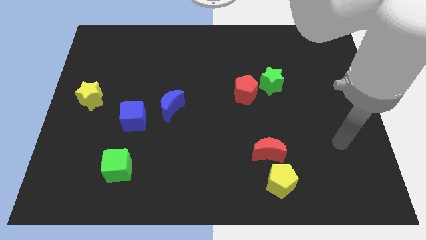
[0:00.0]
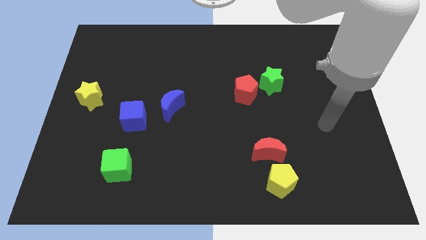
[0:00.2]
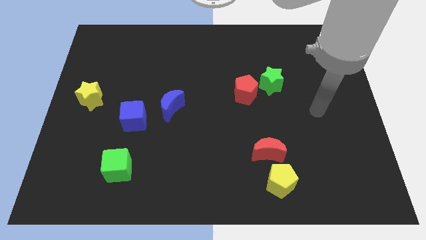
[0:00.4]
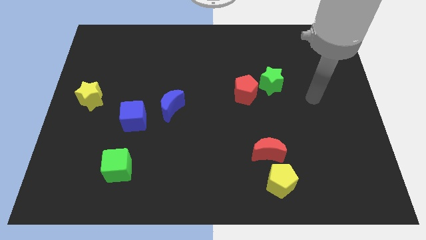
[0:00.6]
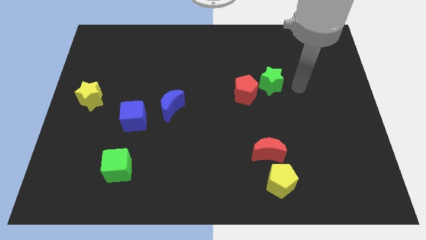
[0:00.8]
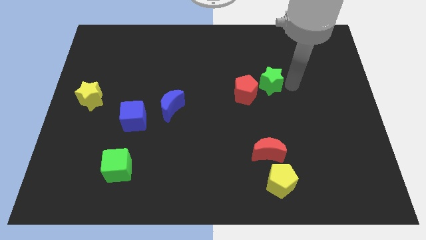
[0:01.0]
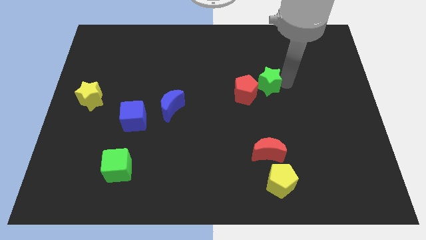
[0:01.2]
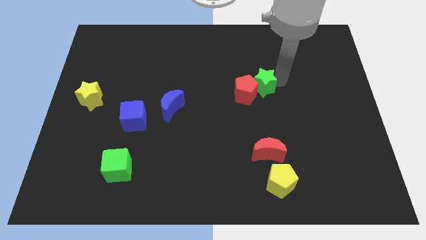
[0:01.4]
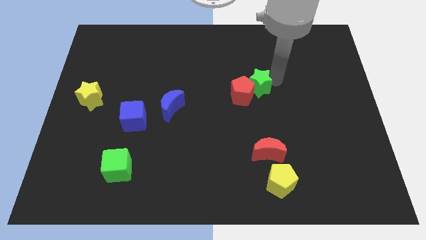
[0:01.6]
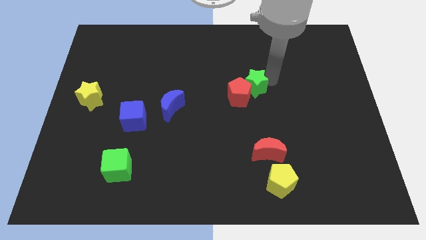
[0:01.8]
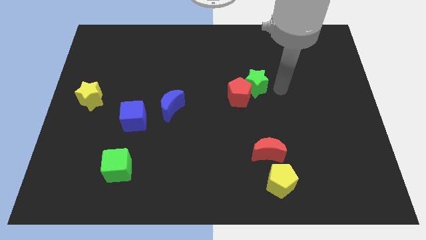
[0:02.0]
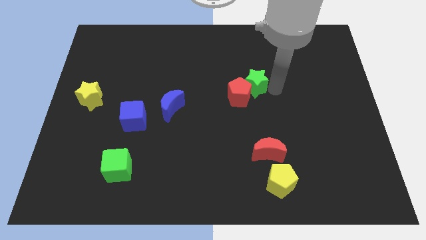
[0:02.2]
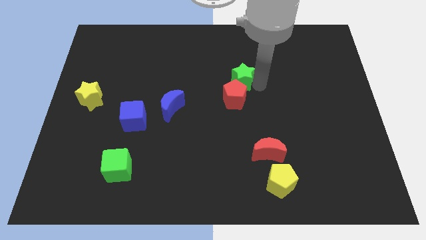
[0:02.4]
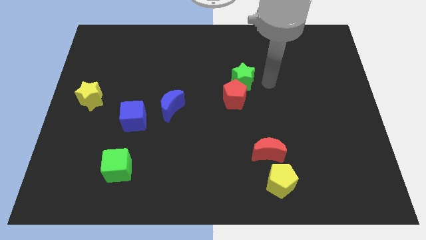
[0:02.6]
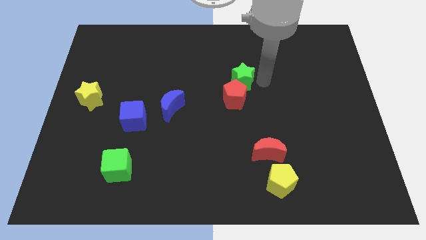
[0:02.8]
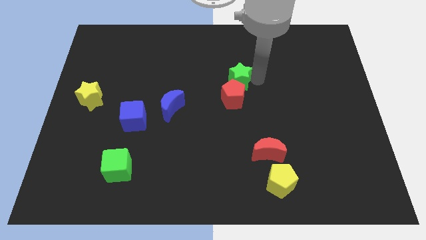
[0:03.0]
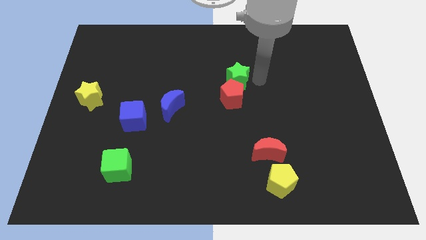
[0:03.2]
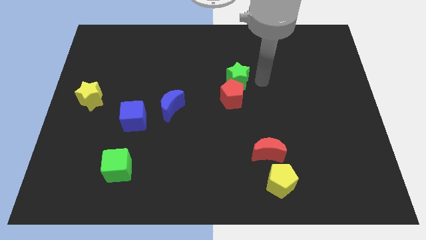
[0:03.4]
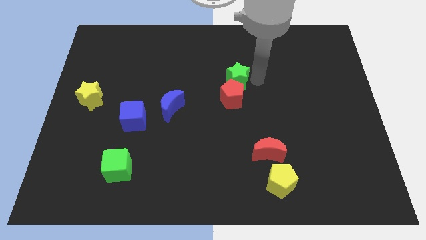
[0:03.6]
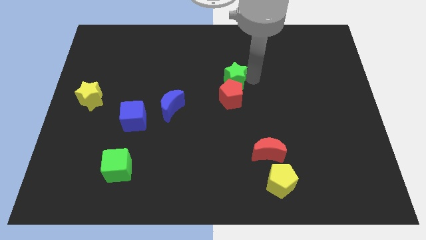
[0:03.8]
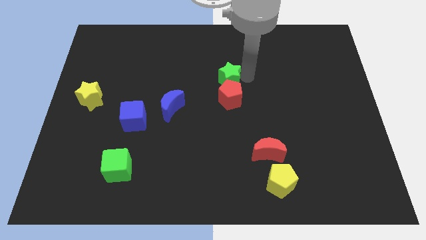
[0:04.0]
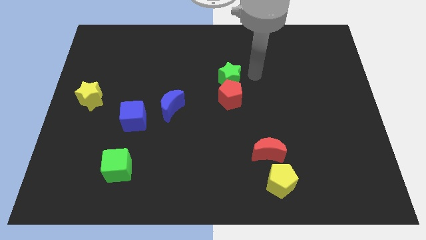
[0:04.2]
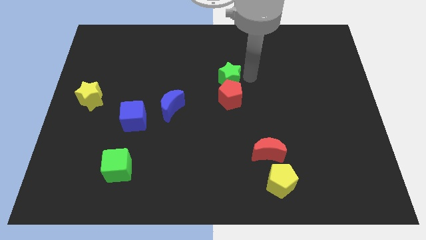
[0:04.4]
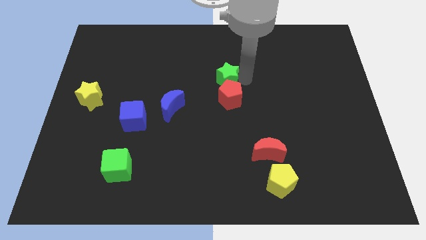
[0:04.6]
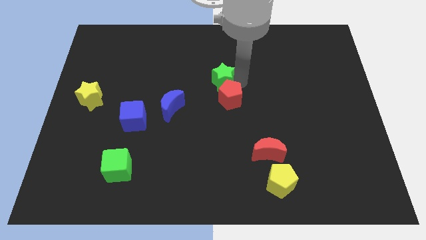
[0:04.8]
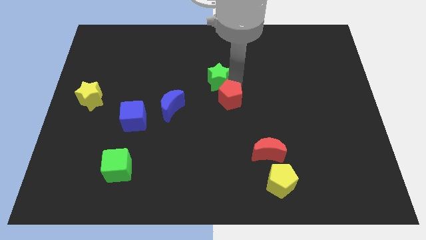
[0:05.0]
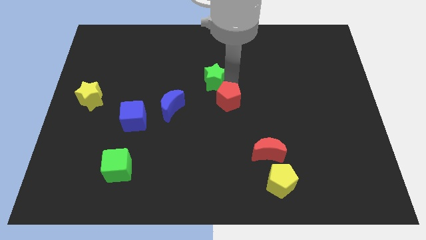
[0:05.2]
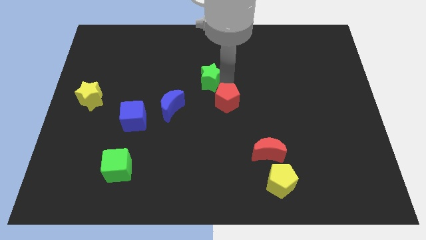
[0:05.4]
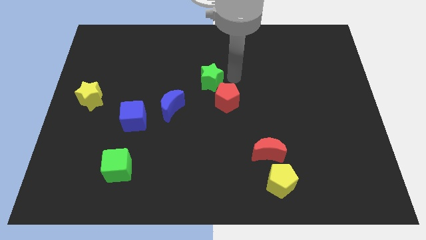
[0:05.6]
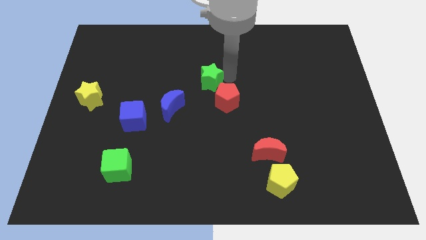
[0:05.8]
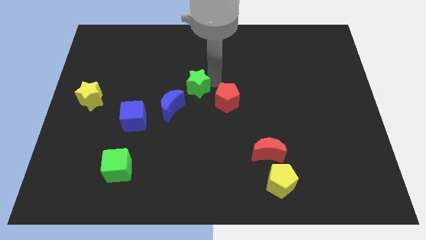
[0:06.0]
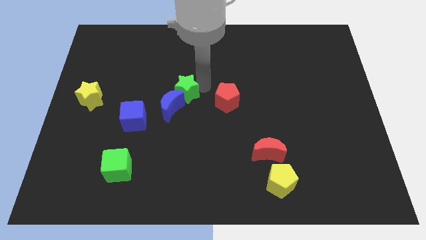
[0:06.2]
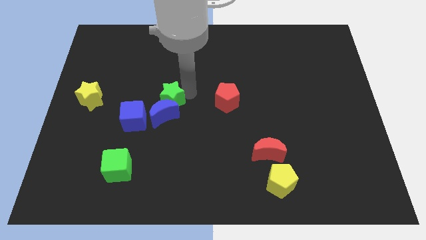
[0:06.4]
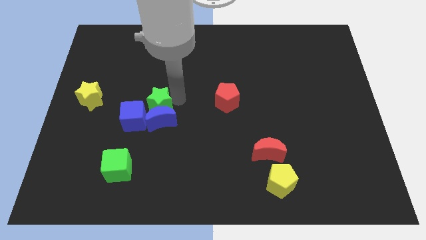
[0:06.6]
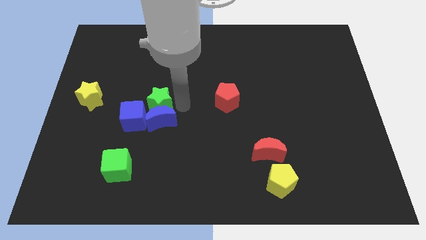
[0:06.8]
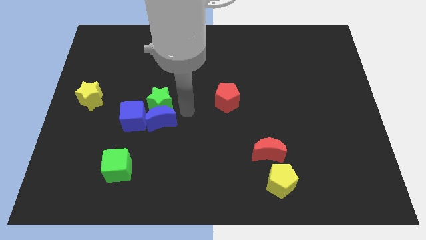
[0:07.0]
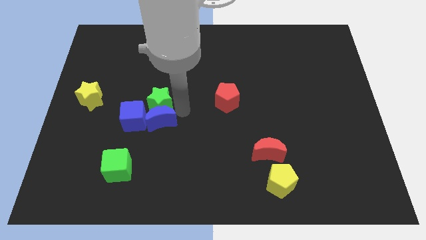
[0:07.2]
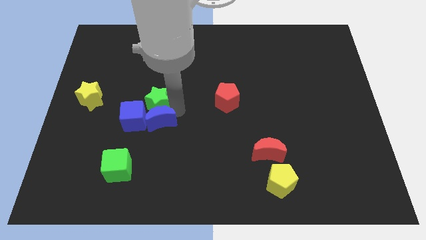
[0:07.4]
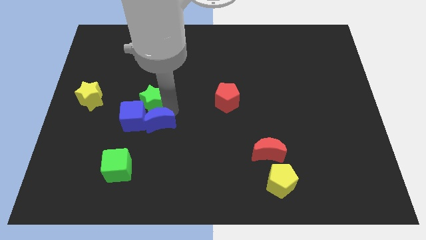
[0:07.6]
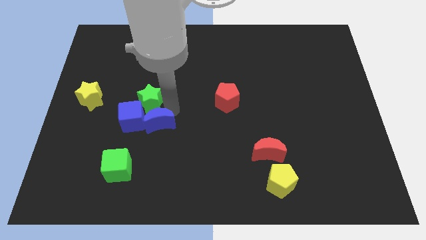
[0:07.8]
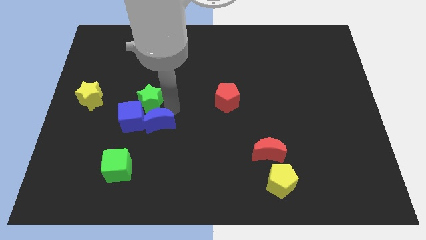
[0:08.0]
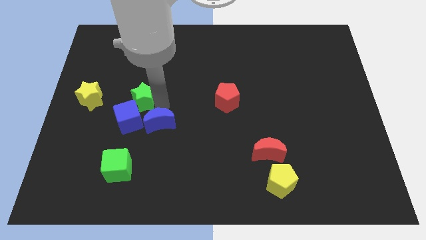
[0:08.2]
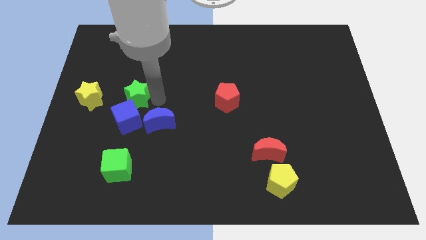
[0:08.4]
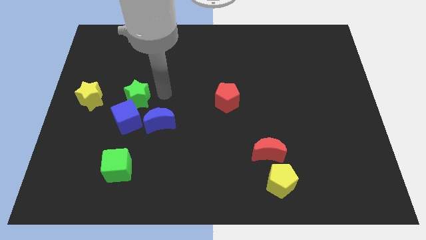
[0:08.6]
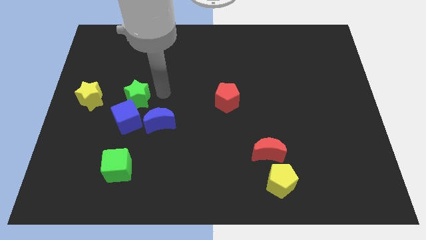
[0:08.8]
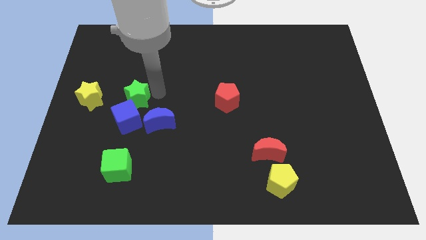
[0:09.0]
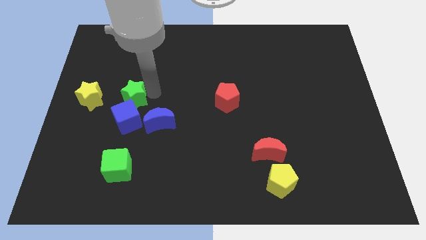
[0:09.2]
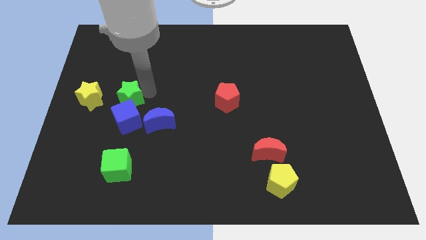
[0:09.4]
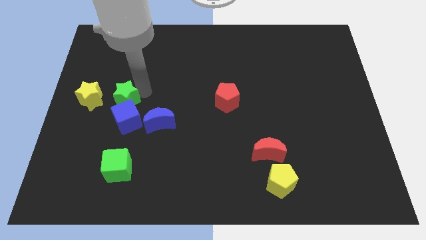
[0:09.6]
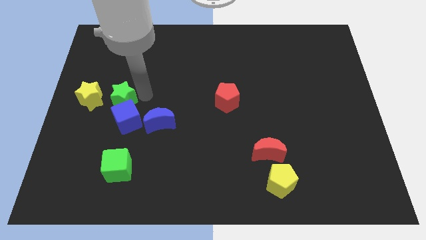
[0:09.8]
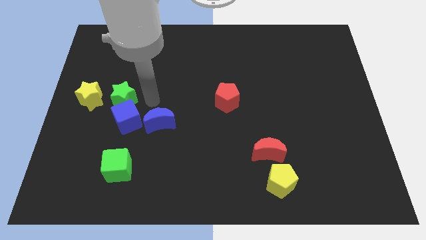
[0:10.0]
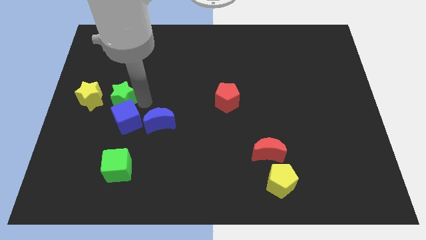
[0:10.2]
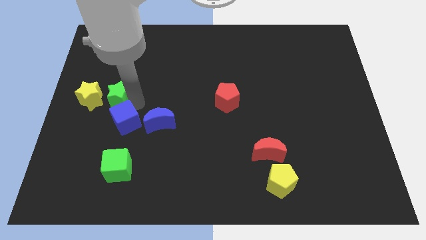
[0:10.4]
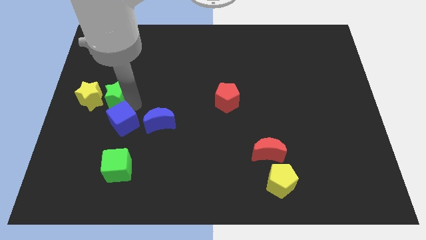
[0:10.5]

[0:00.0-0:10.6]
push the green star close to the yellow star

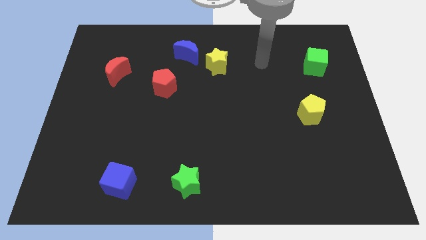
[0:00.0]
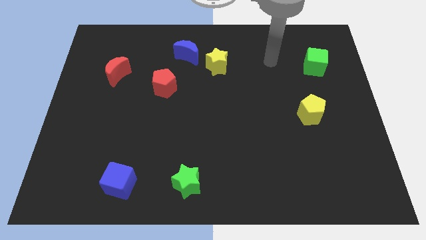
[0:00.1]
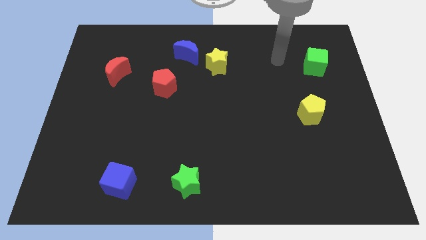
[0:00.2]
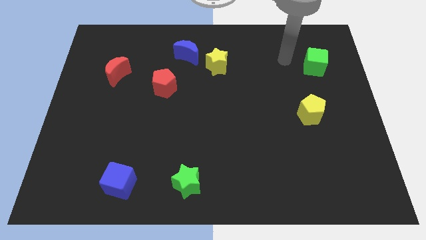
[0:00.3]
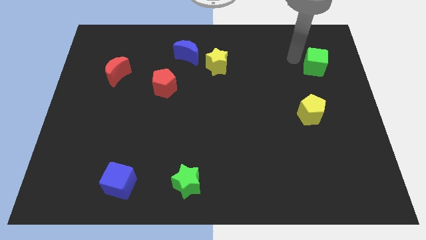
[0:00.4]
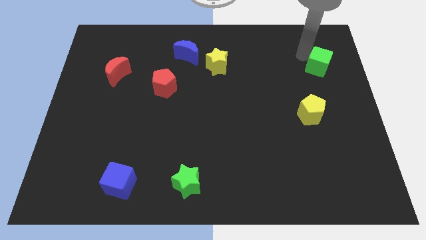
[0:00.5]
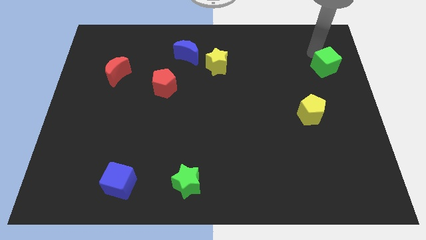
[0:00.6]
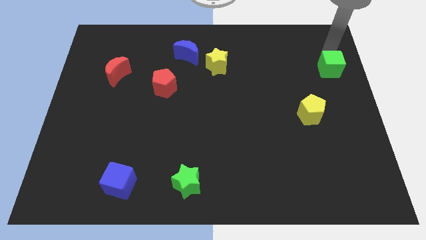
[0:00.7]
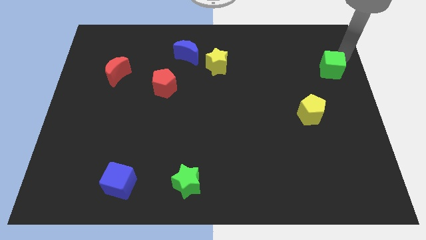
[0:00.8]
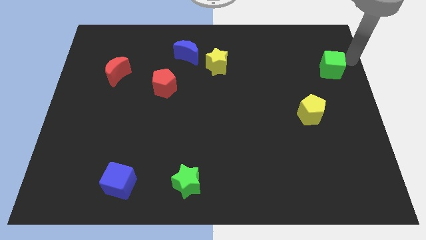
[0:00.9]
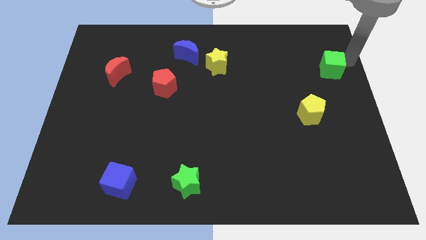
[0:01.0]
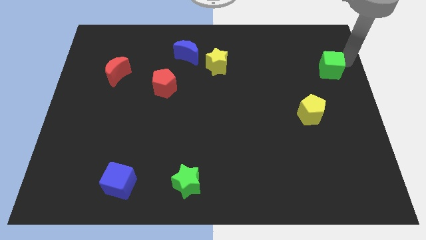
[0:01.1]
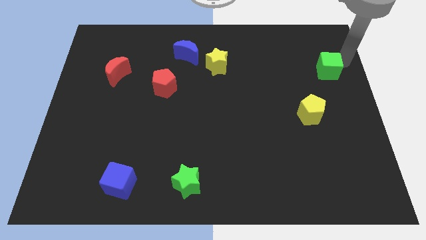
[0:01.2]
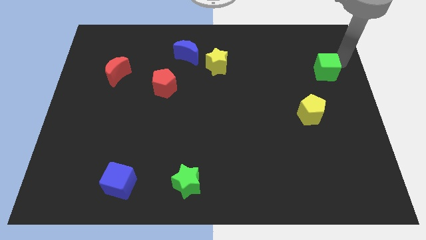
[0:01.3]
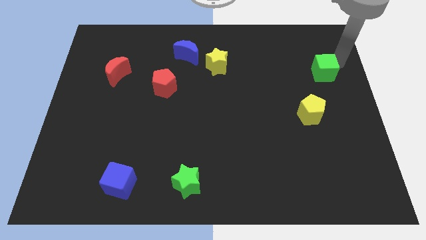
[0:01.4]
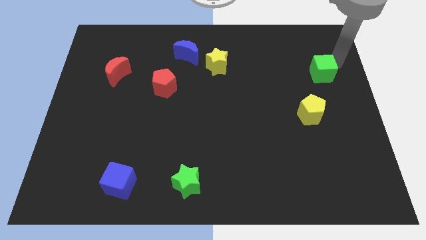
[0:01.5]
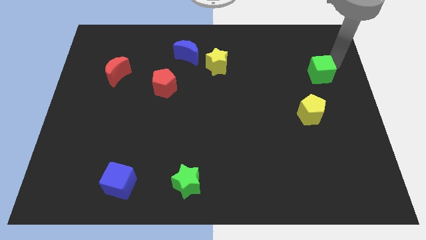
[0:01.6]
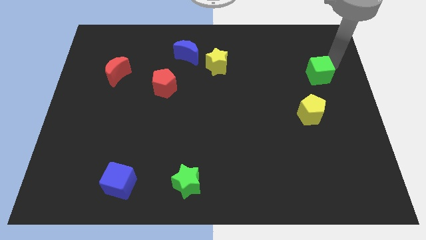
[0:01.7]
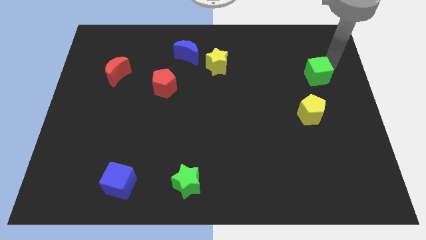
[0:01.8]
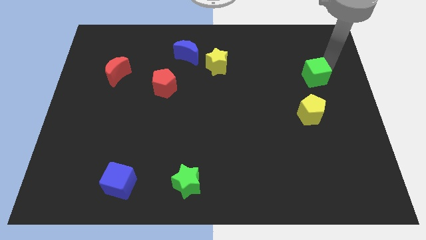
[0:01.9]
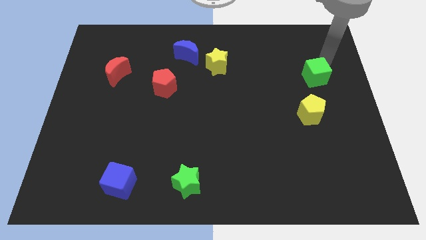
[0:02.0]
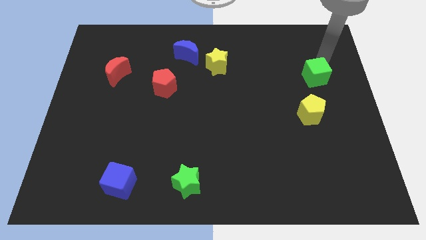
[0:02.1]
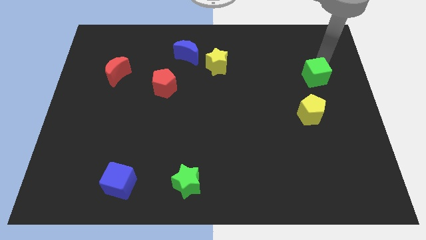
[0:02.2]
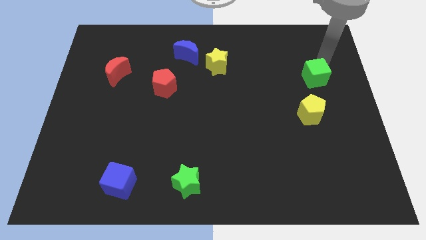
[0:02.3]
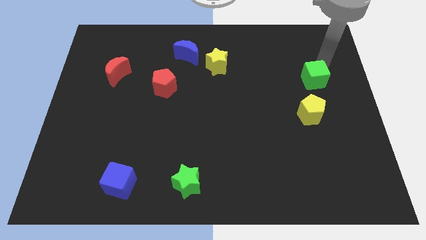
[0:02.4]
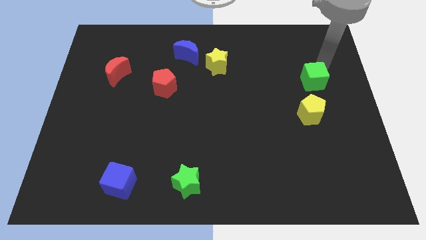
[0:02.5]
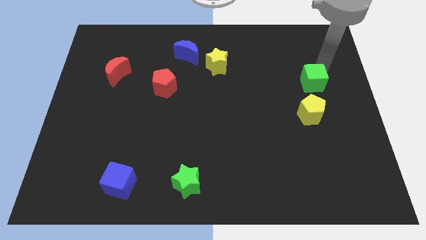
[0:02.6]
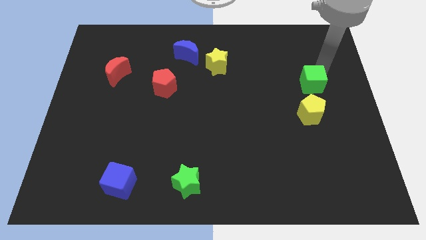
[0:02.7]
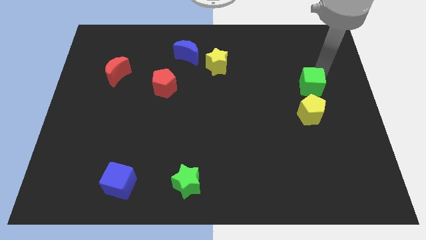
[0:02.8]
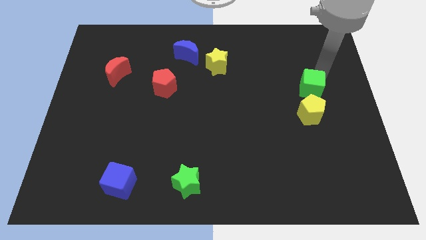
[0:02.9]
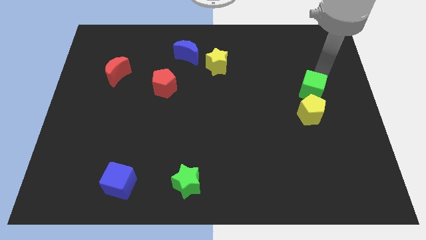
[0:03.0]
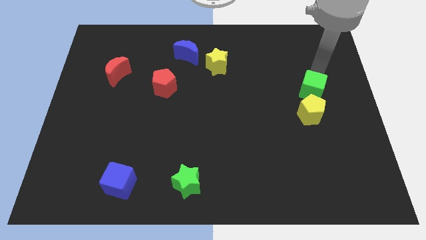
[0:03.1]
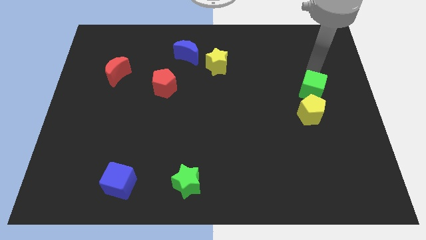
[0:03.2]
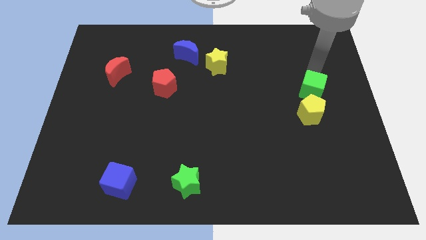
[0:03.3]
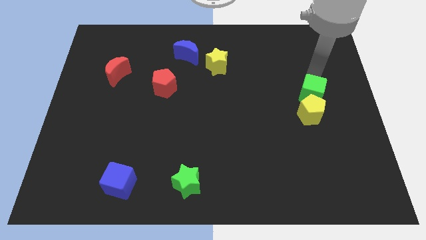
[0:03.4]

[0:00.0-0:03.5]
push the green cube to the yellow pentagon
